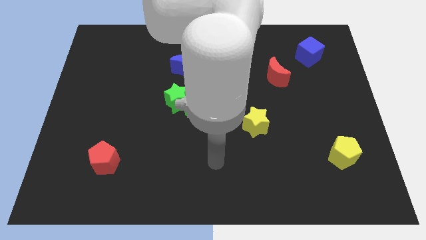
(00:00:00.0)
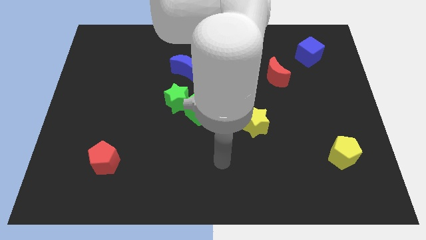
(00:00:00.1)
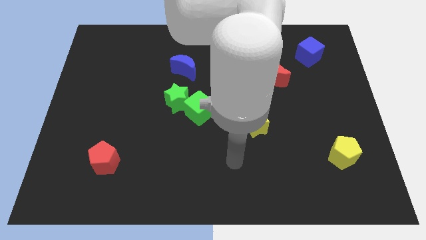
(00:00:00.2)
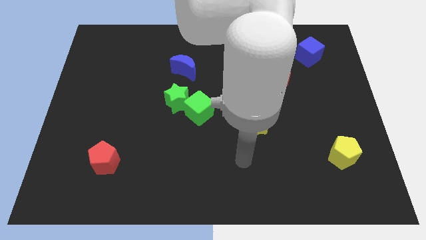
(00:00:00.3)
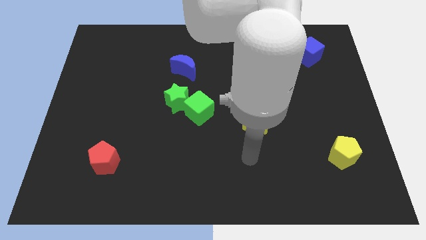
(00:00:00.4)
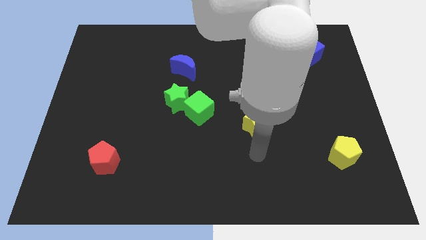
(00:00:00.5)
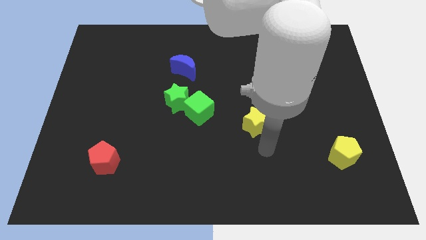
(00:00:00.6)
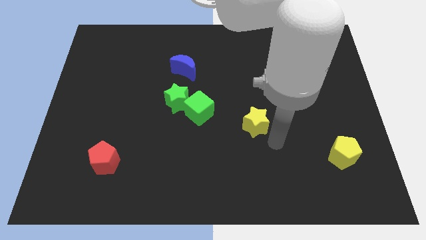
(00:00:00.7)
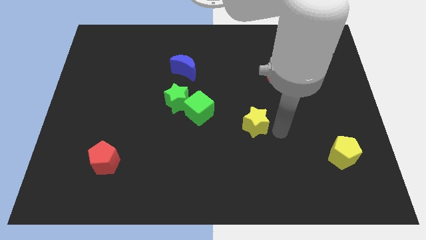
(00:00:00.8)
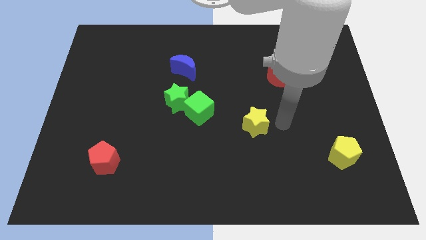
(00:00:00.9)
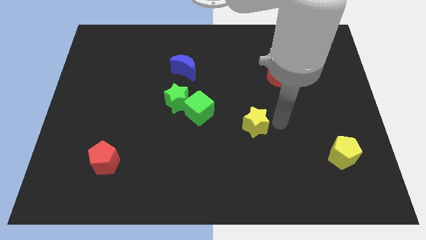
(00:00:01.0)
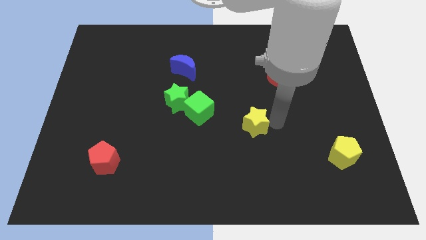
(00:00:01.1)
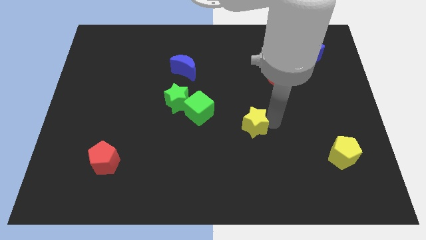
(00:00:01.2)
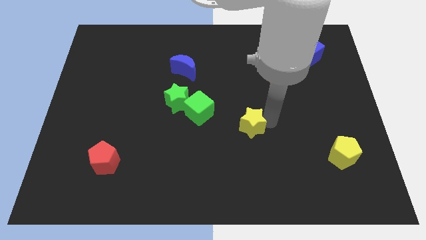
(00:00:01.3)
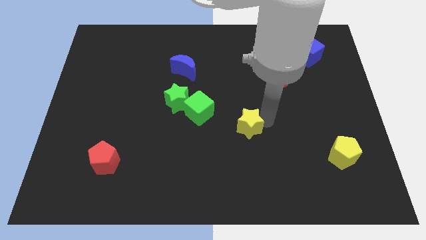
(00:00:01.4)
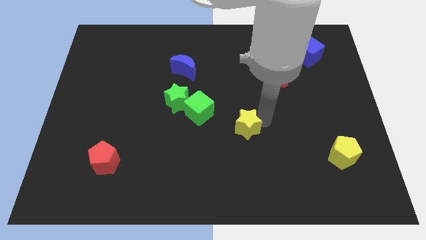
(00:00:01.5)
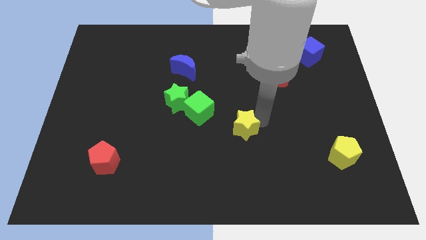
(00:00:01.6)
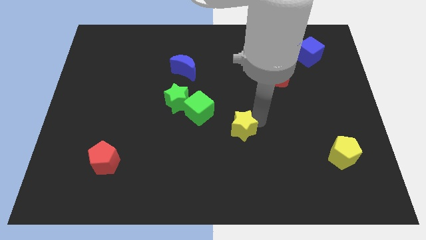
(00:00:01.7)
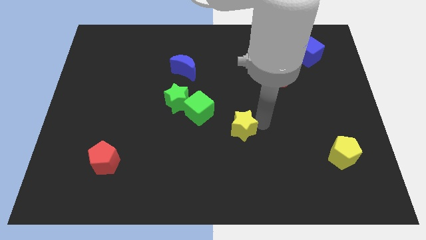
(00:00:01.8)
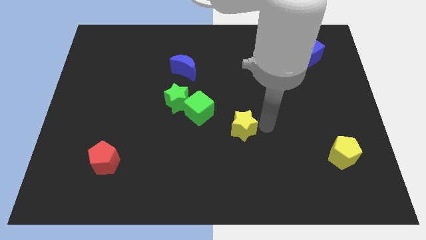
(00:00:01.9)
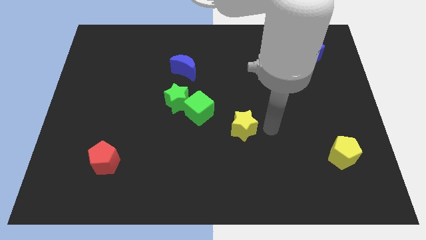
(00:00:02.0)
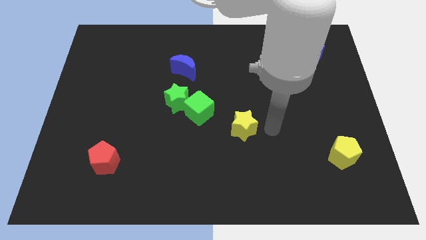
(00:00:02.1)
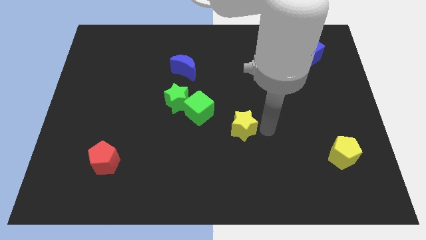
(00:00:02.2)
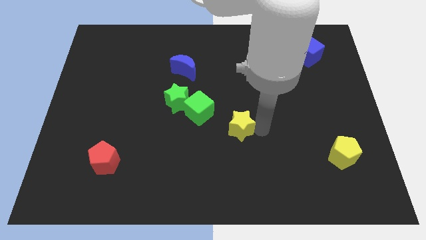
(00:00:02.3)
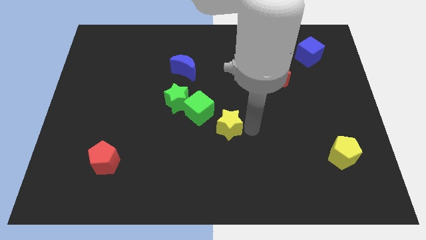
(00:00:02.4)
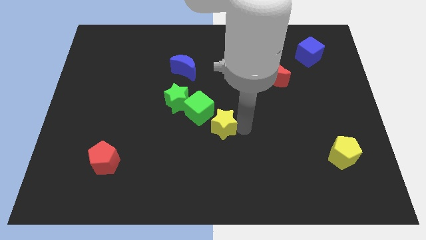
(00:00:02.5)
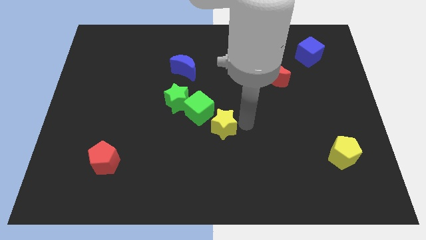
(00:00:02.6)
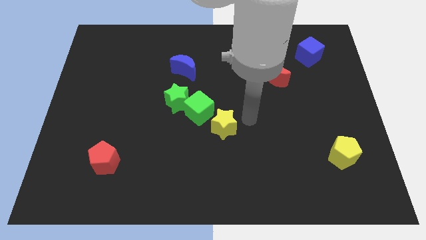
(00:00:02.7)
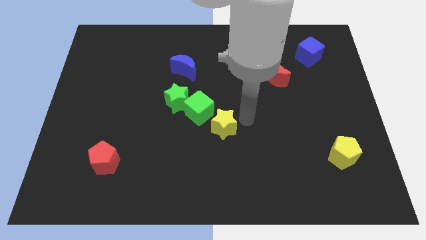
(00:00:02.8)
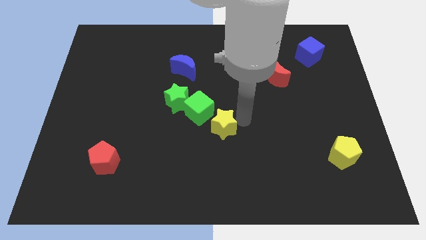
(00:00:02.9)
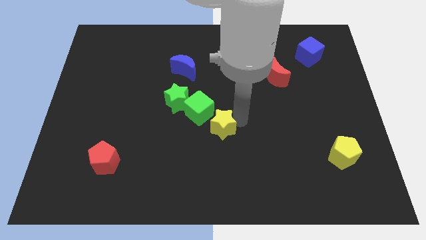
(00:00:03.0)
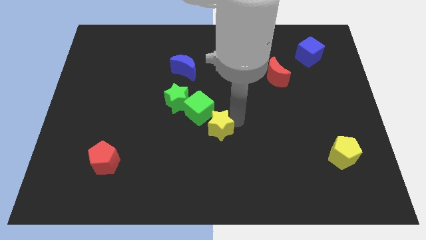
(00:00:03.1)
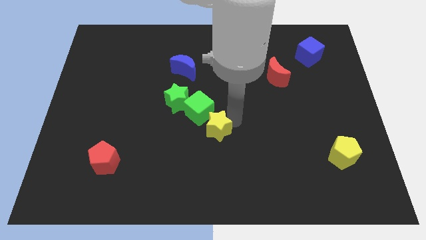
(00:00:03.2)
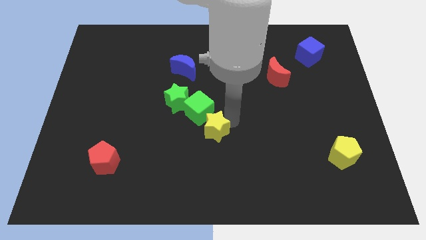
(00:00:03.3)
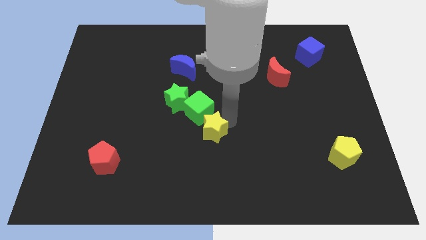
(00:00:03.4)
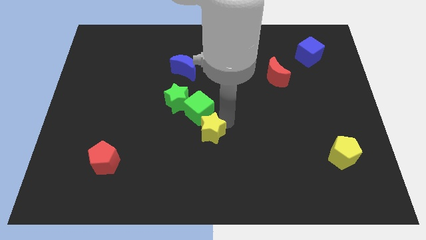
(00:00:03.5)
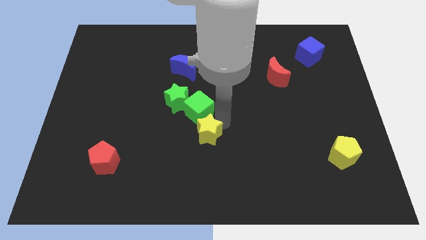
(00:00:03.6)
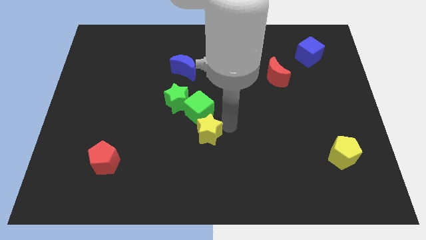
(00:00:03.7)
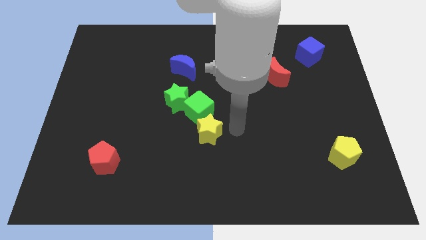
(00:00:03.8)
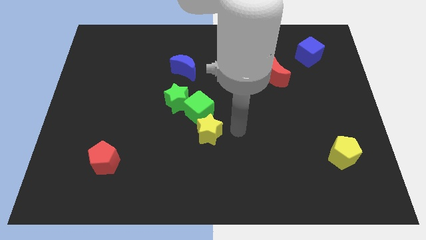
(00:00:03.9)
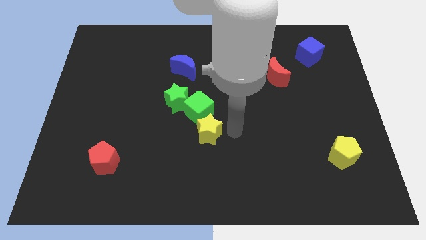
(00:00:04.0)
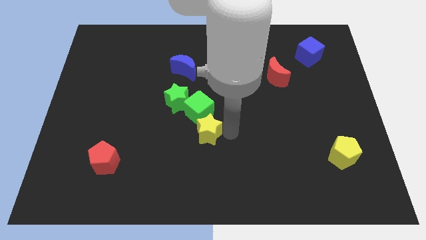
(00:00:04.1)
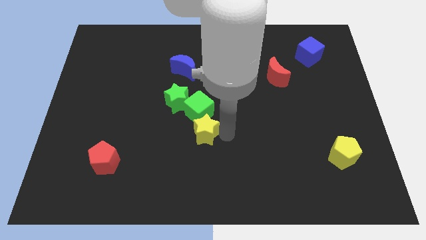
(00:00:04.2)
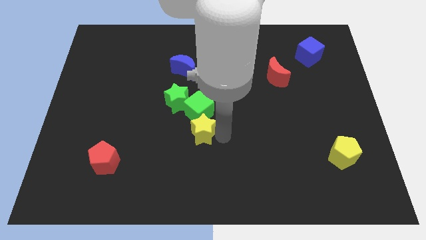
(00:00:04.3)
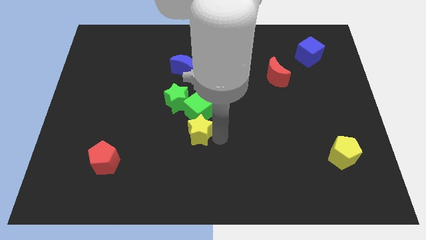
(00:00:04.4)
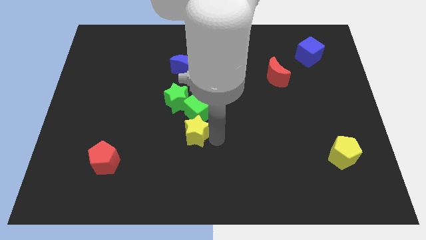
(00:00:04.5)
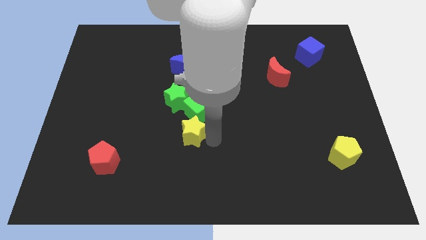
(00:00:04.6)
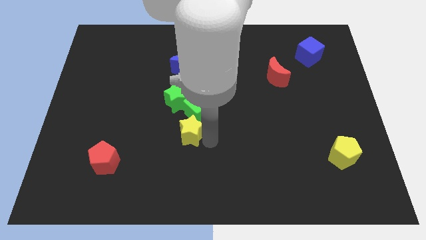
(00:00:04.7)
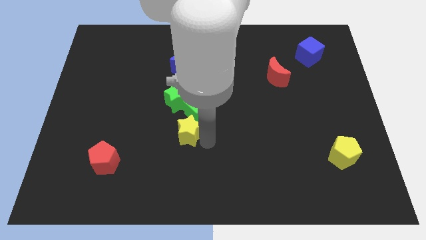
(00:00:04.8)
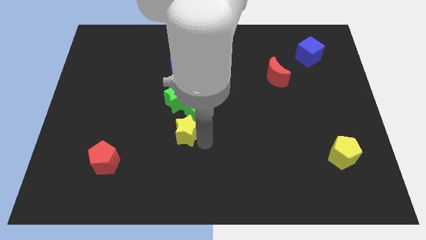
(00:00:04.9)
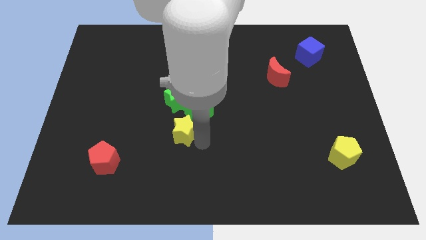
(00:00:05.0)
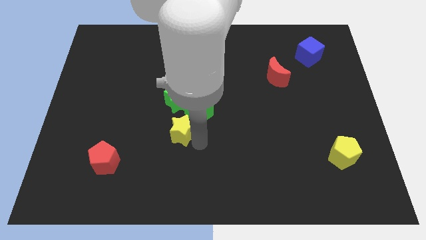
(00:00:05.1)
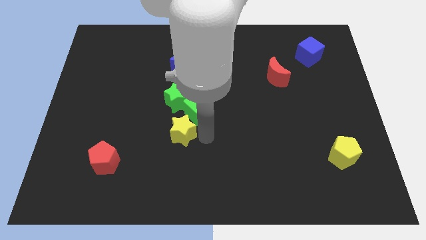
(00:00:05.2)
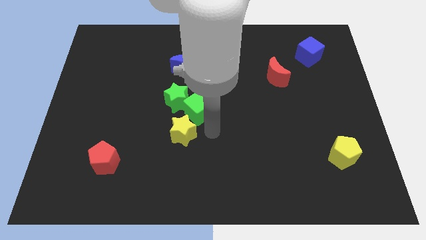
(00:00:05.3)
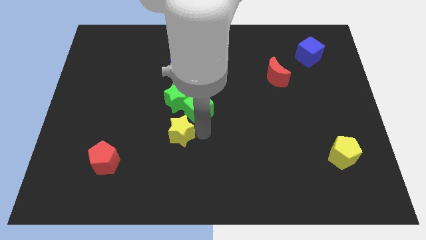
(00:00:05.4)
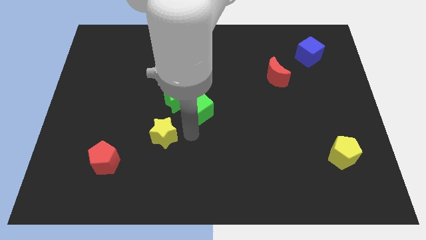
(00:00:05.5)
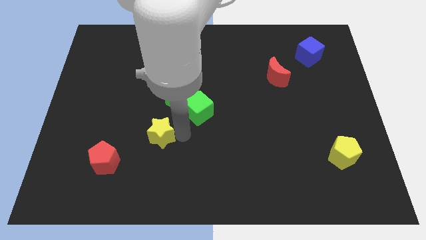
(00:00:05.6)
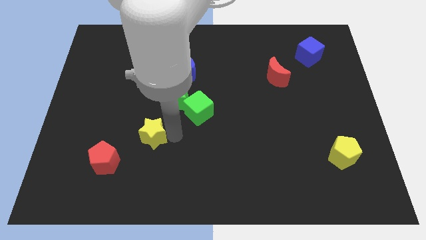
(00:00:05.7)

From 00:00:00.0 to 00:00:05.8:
put the yellow star to the top right of the red pentagon
